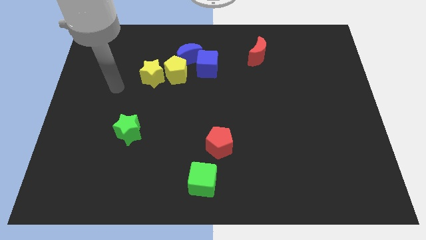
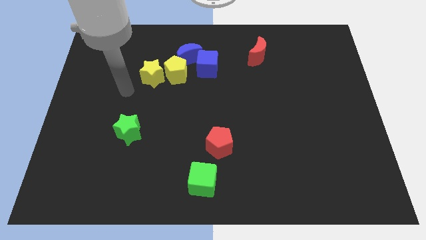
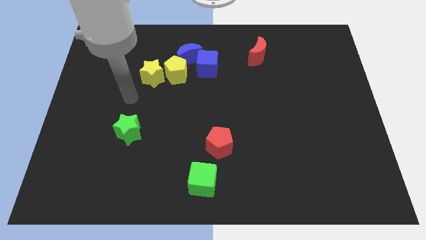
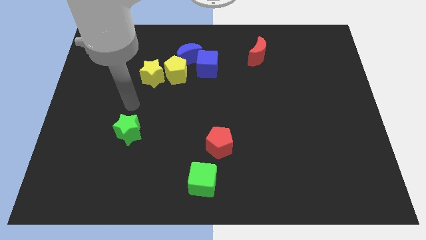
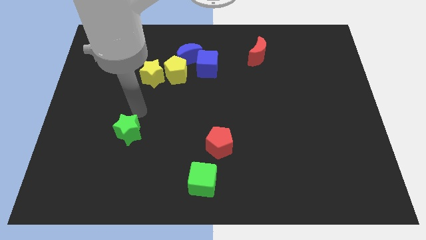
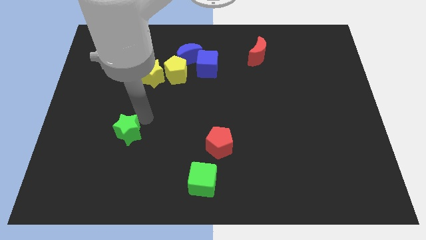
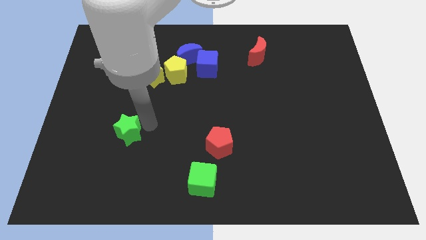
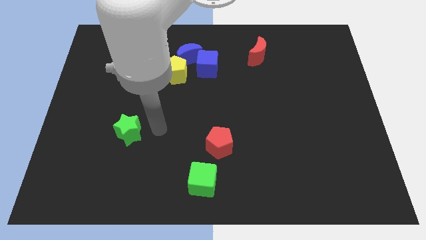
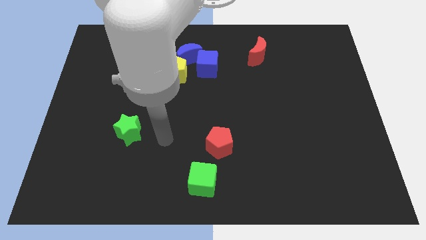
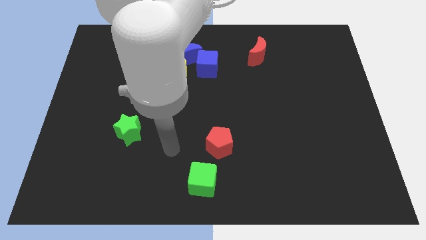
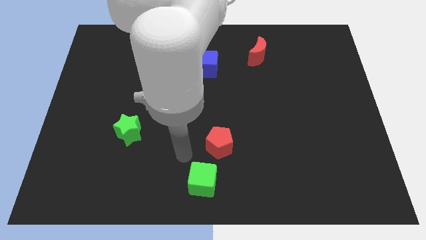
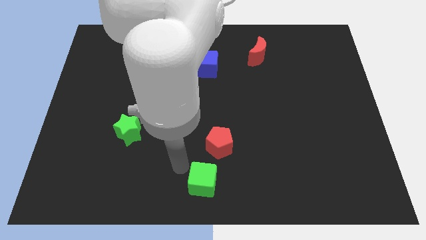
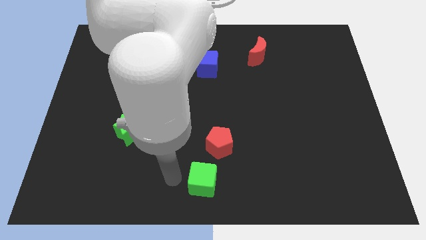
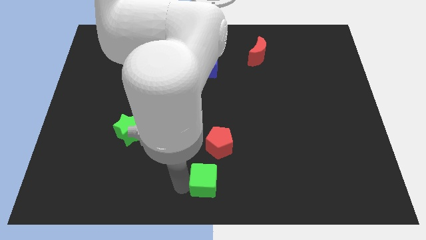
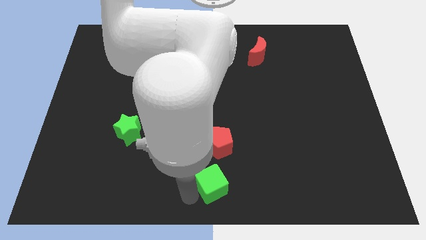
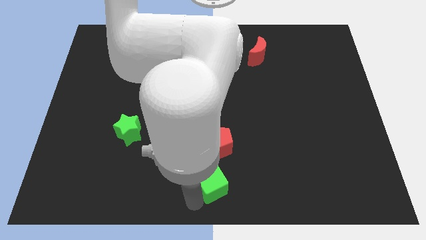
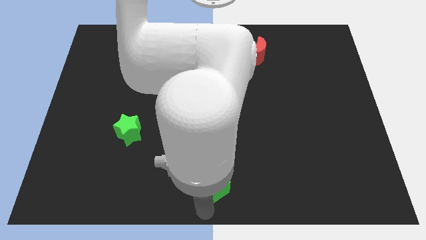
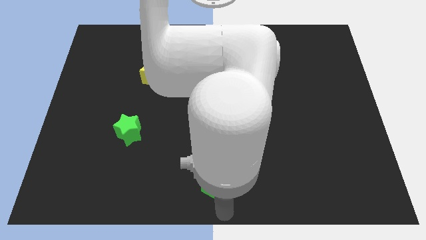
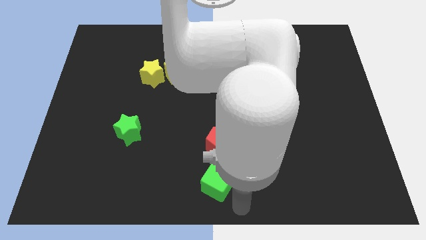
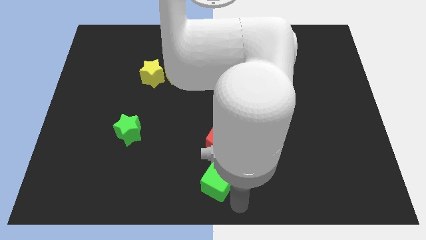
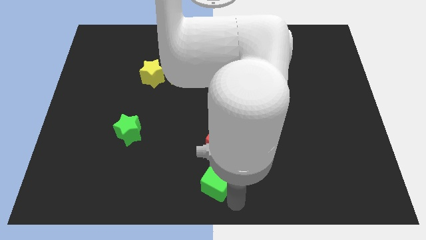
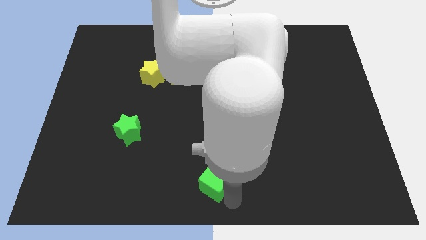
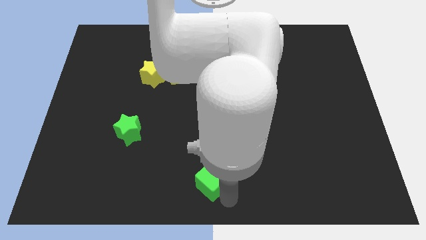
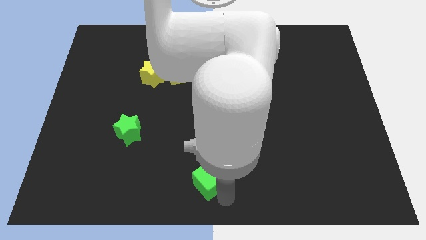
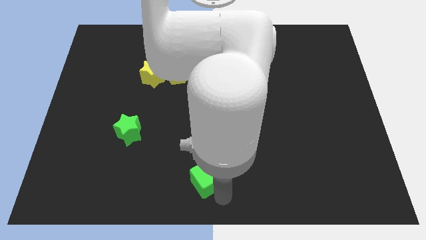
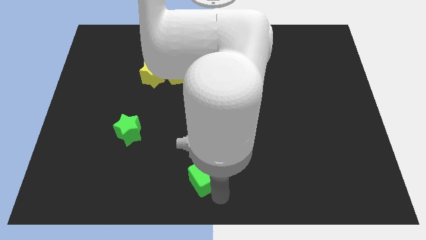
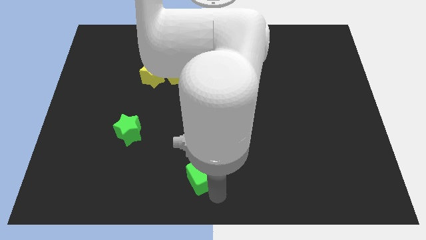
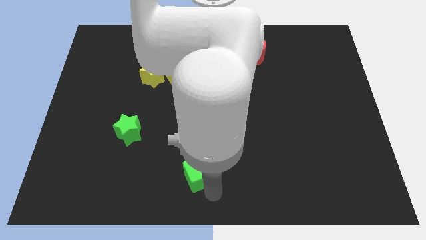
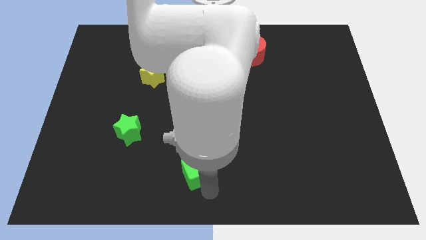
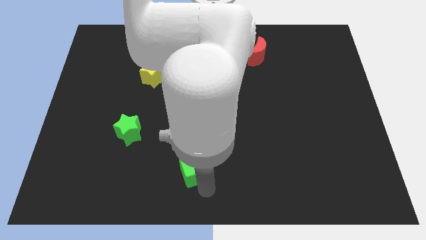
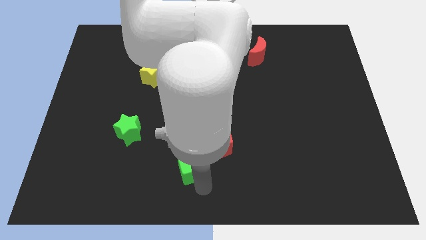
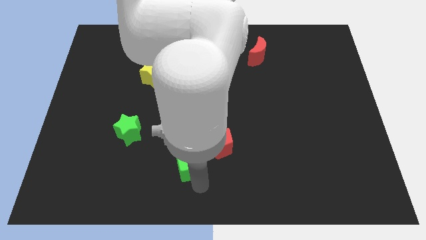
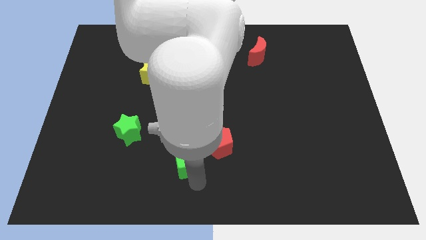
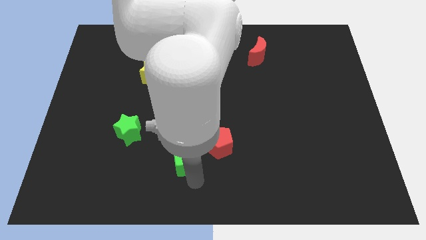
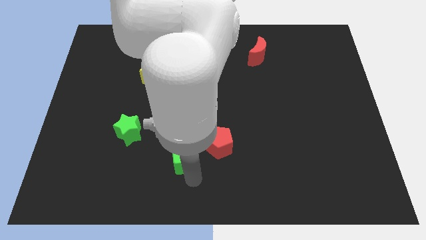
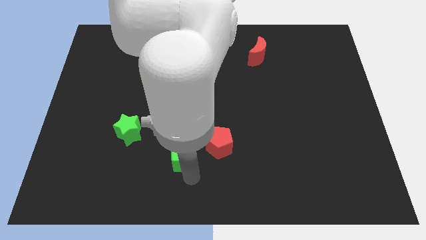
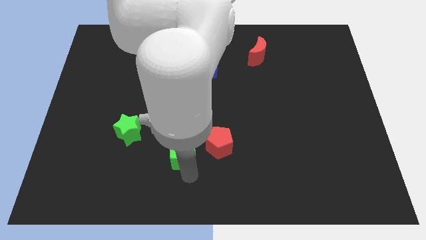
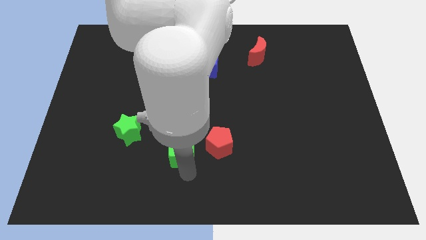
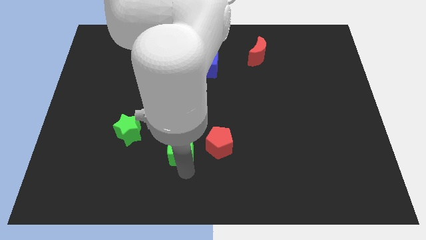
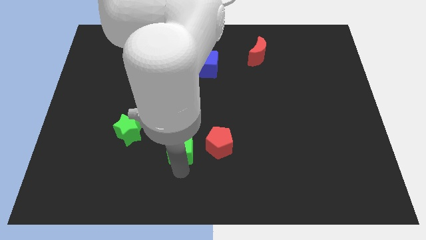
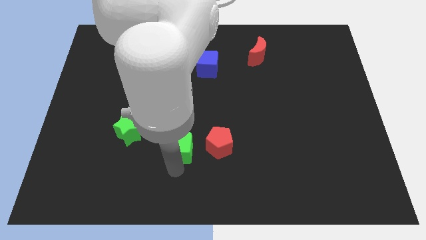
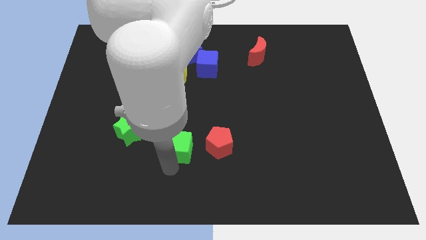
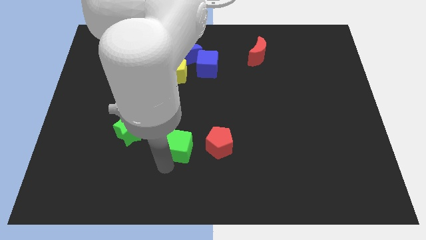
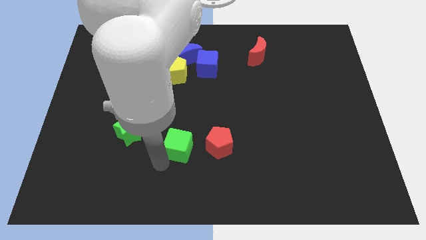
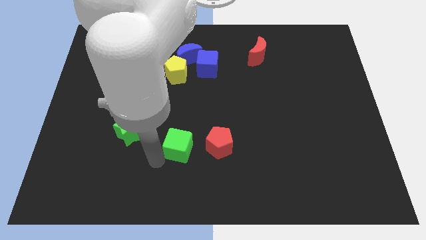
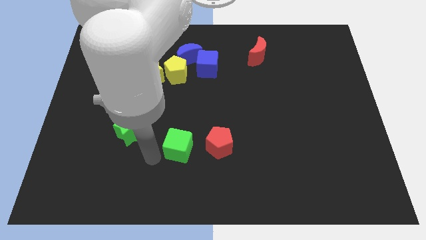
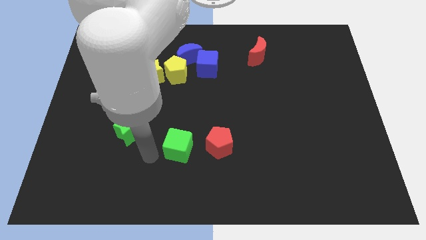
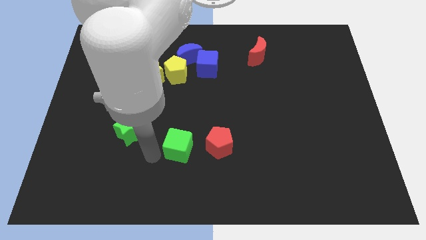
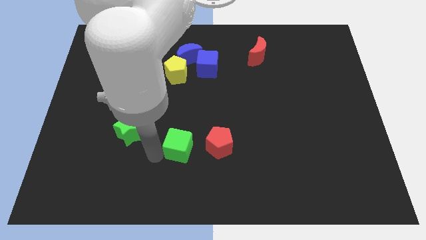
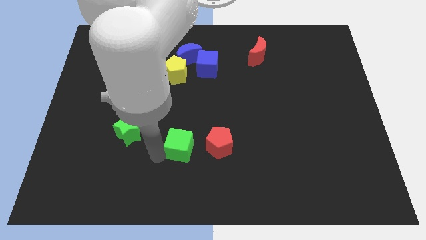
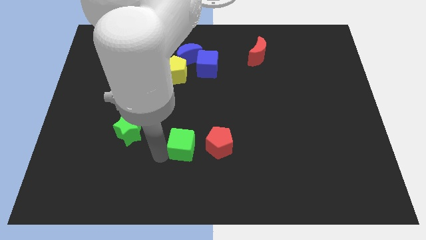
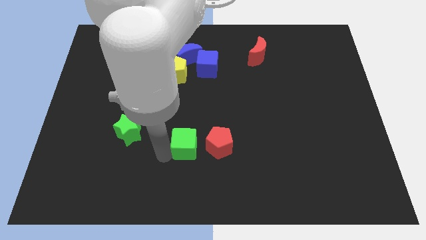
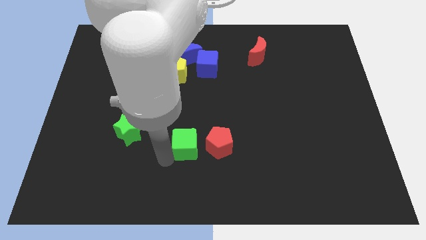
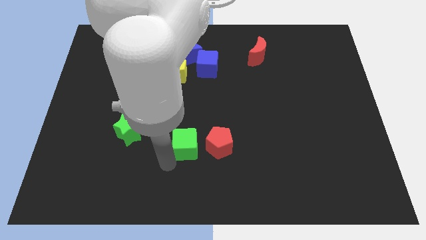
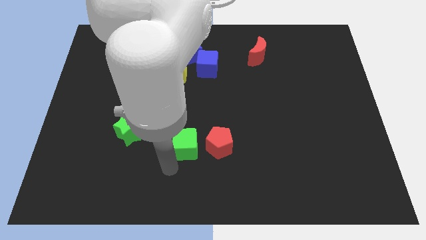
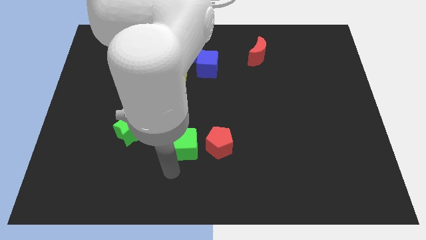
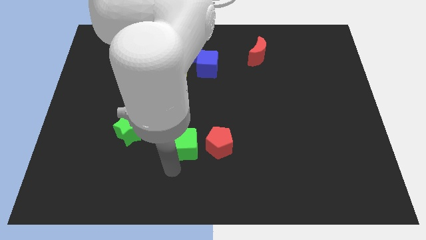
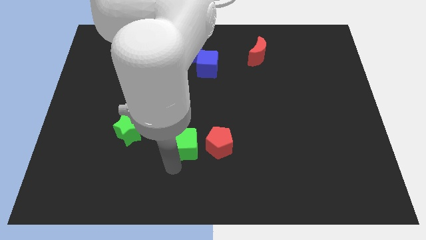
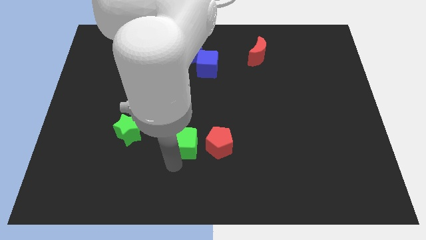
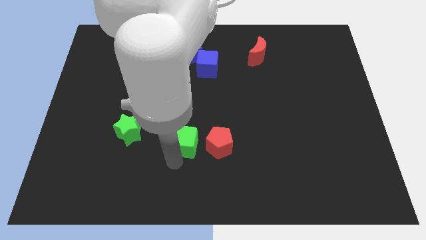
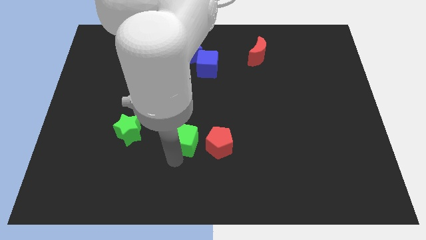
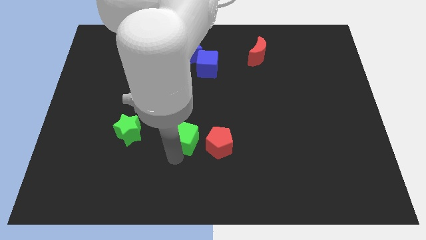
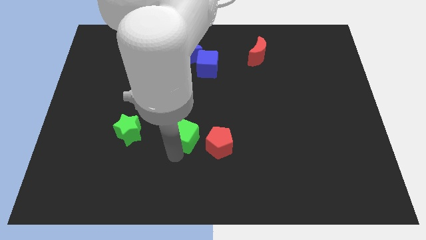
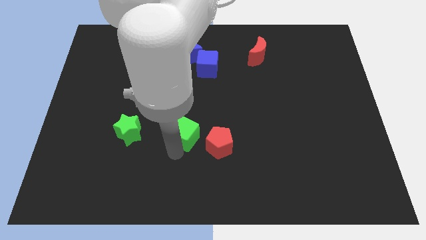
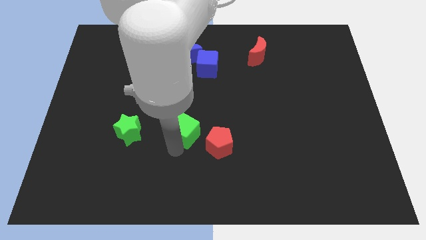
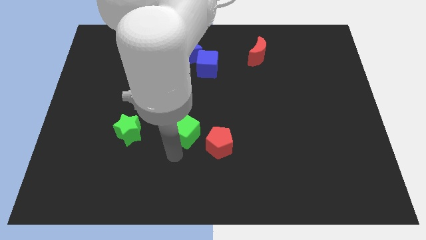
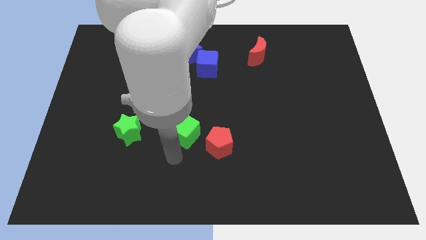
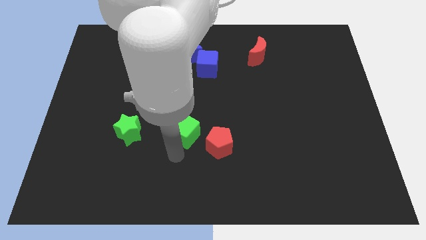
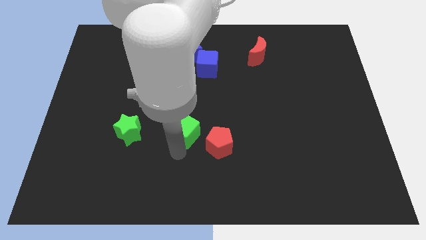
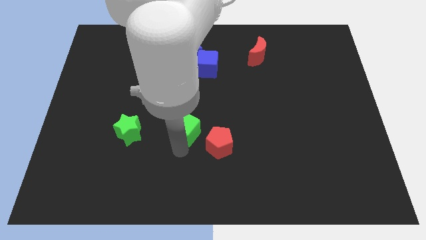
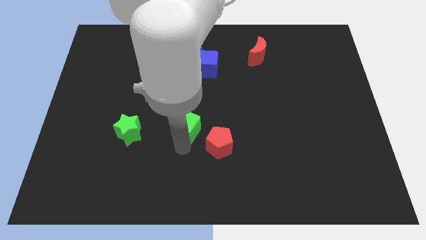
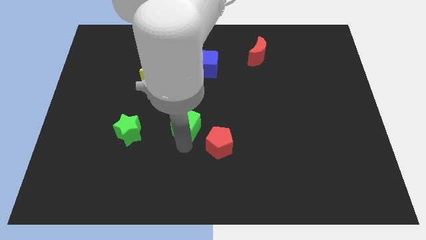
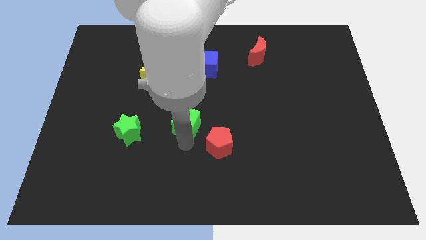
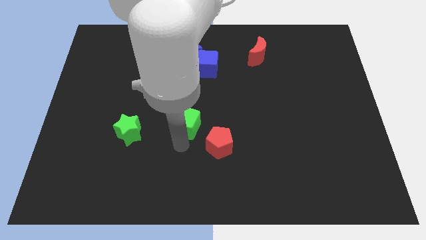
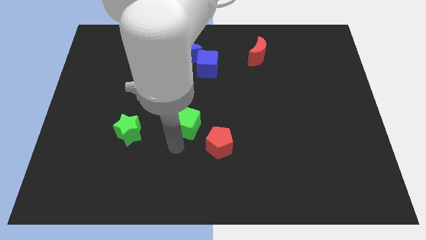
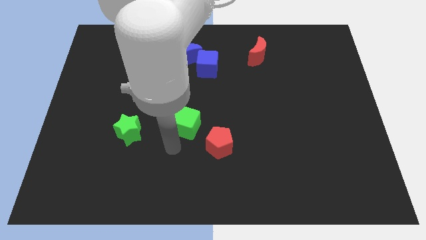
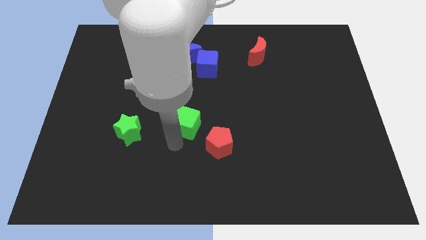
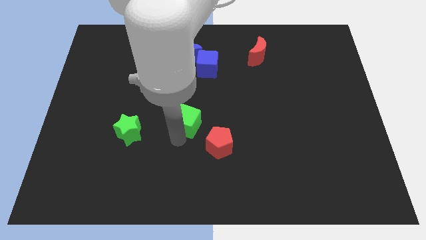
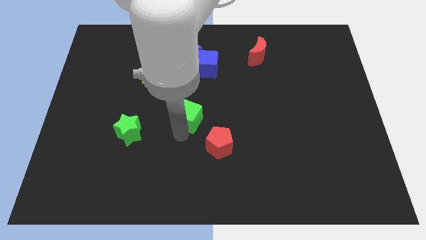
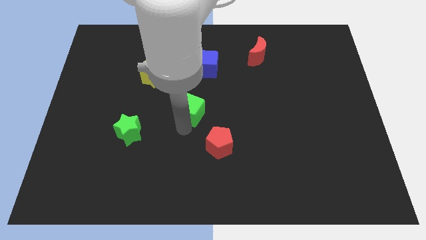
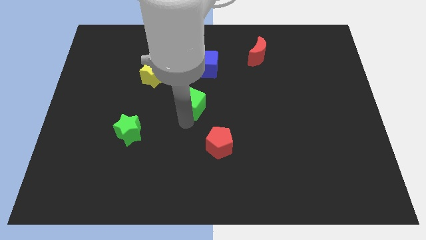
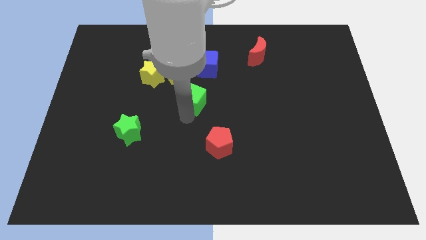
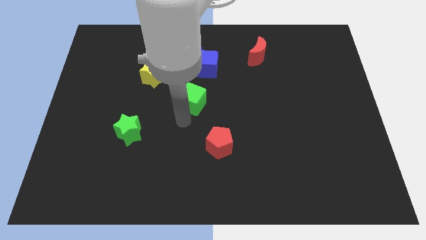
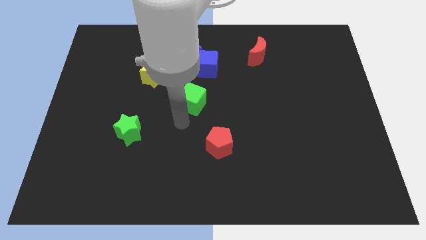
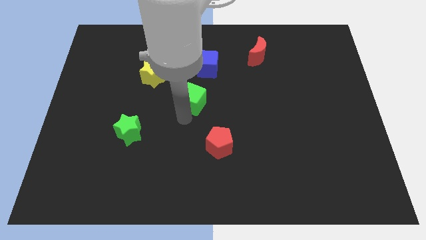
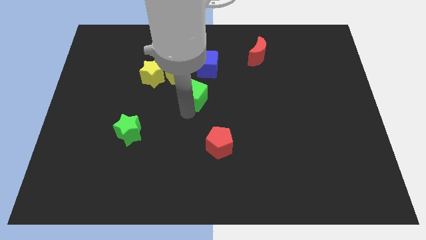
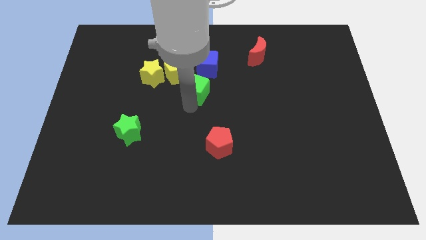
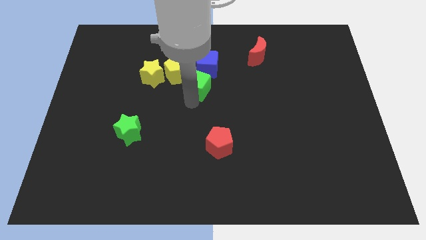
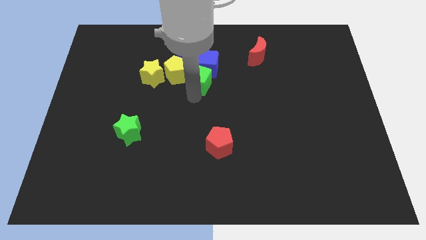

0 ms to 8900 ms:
move the green cube close to the blue cube
